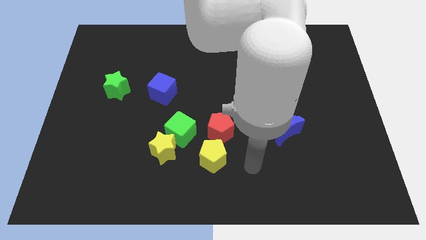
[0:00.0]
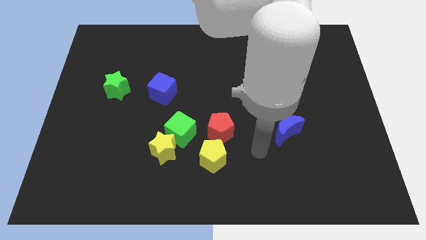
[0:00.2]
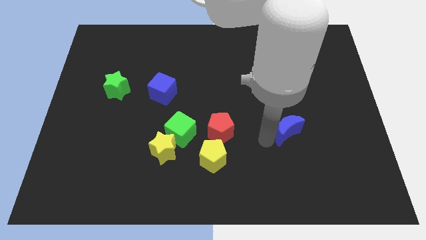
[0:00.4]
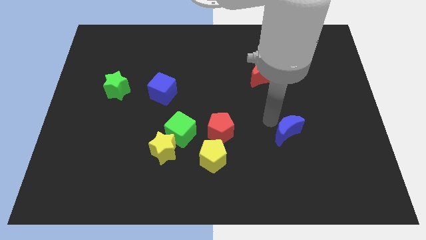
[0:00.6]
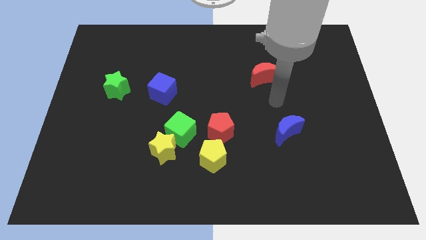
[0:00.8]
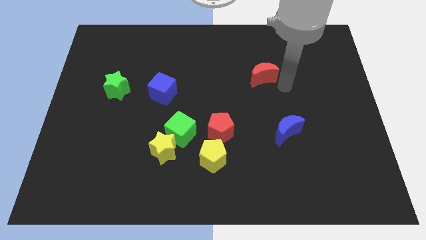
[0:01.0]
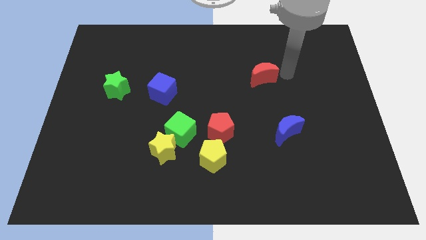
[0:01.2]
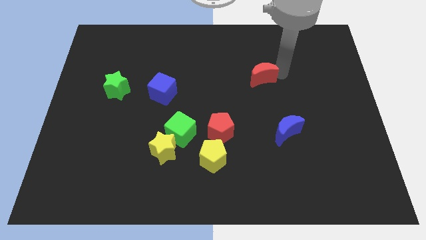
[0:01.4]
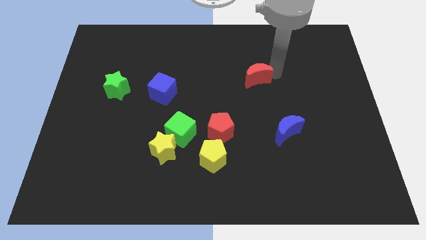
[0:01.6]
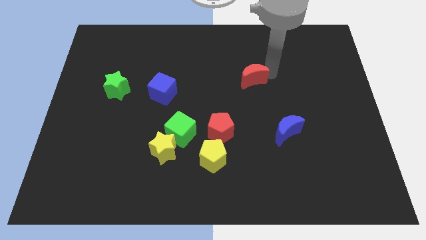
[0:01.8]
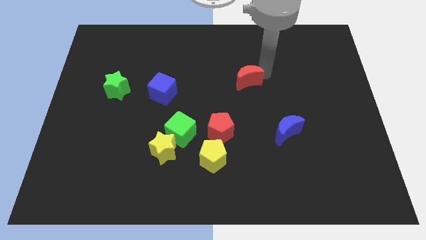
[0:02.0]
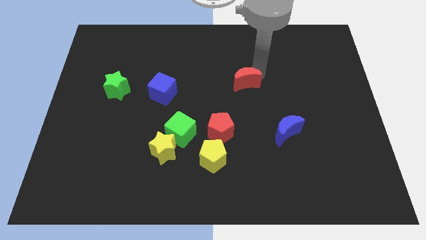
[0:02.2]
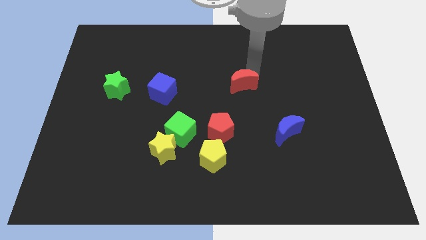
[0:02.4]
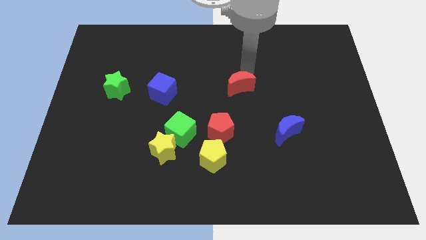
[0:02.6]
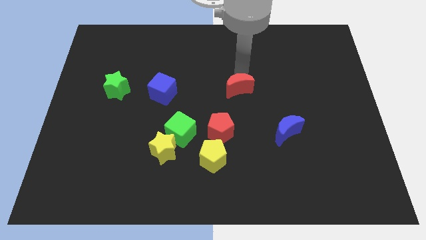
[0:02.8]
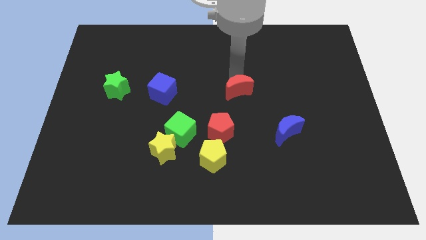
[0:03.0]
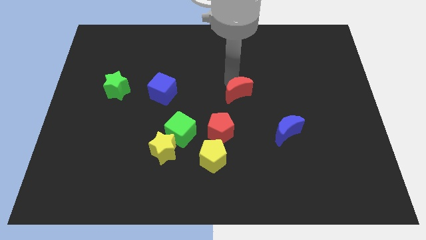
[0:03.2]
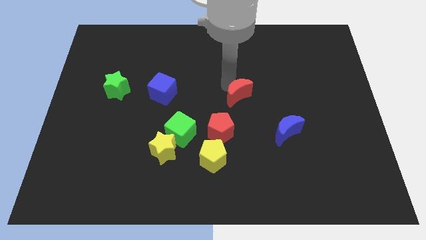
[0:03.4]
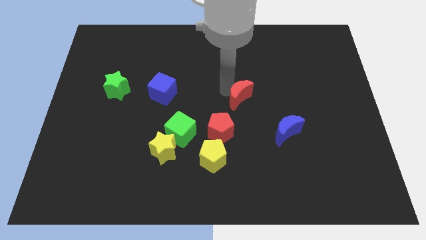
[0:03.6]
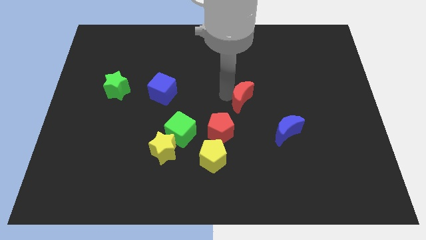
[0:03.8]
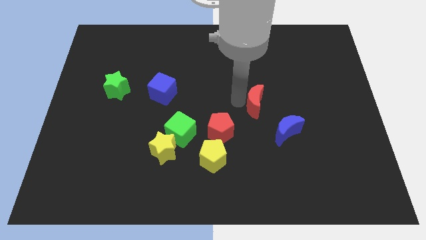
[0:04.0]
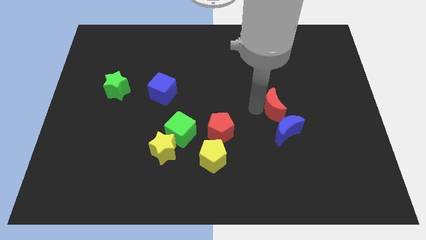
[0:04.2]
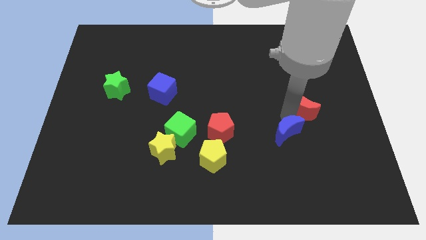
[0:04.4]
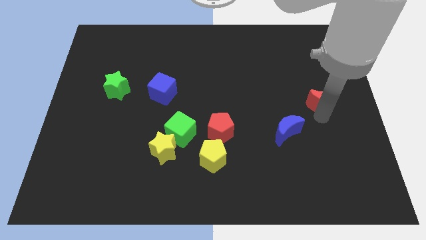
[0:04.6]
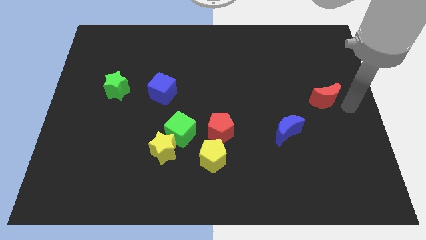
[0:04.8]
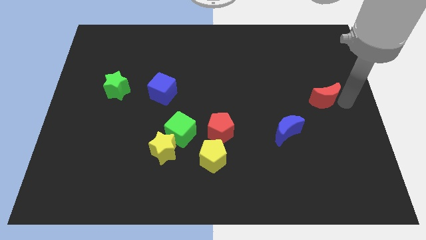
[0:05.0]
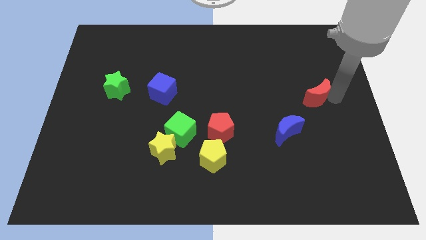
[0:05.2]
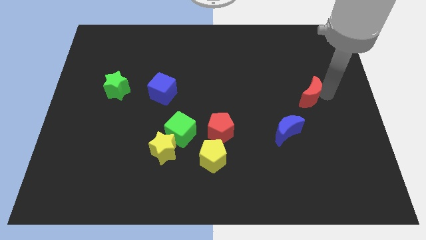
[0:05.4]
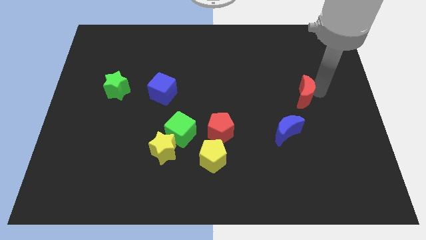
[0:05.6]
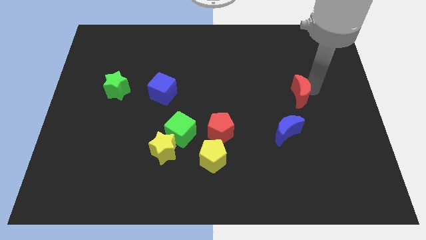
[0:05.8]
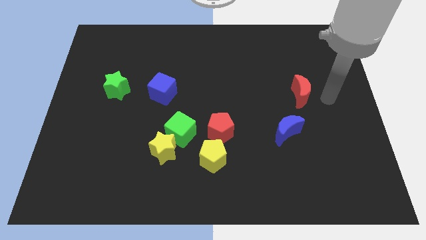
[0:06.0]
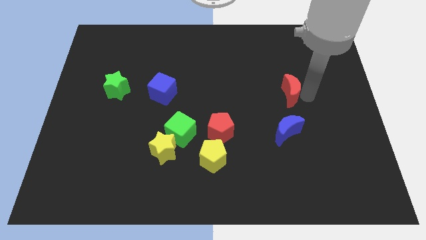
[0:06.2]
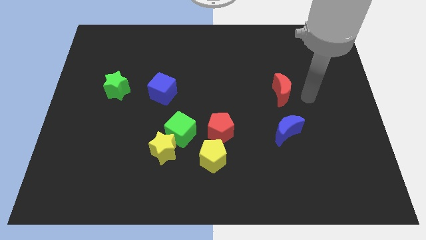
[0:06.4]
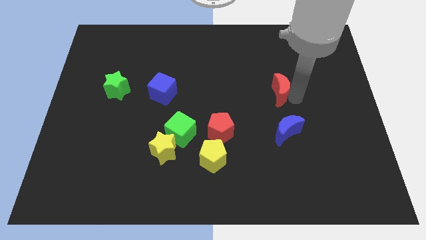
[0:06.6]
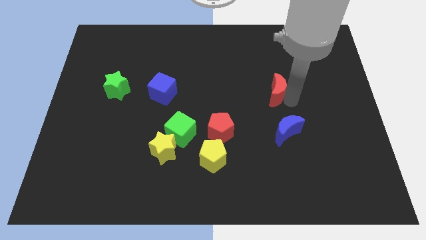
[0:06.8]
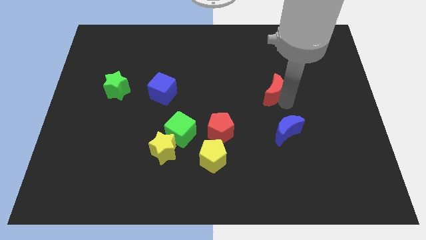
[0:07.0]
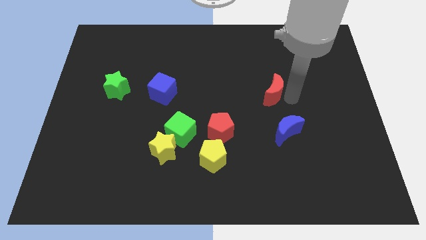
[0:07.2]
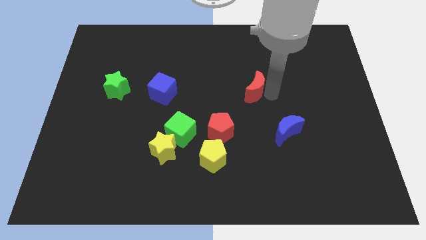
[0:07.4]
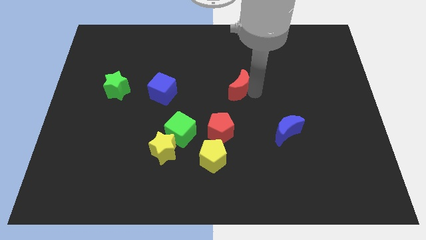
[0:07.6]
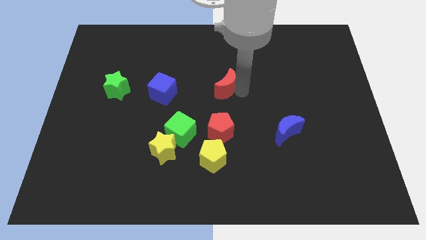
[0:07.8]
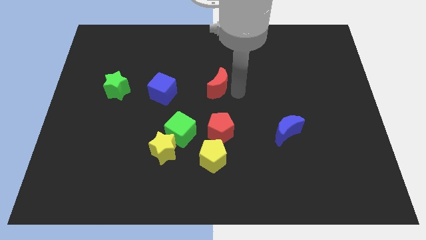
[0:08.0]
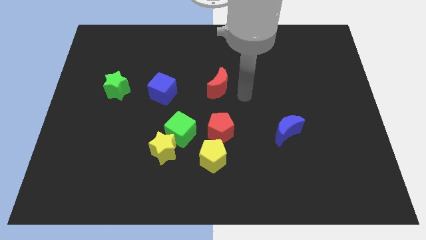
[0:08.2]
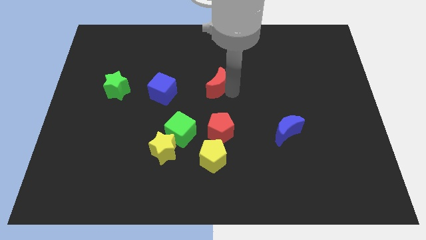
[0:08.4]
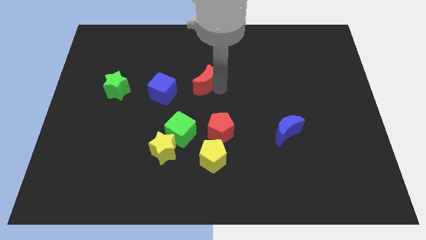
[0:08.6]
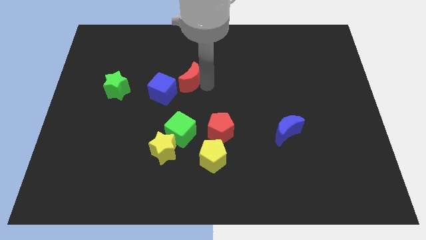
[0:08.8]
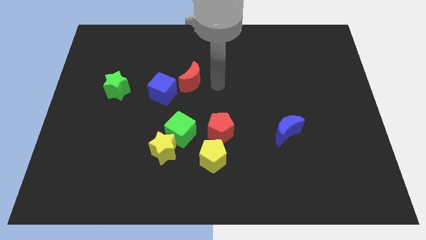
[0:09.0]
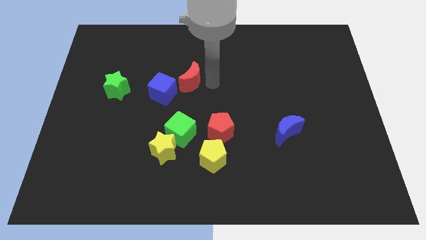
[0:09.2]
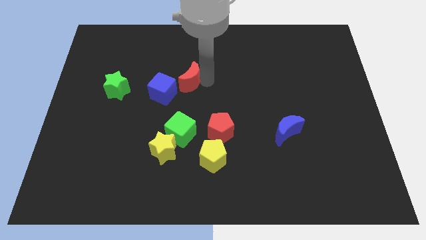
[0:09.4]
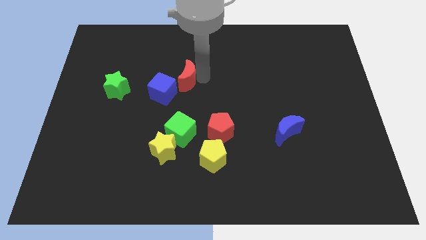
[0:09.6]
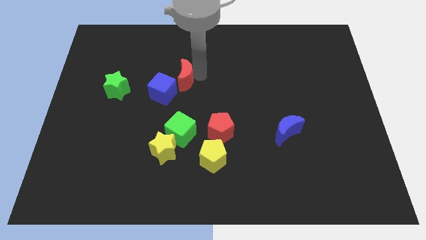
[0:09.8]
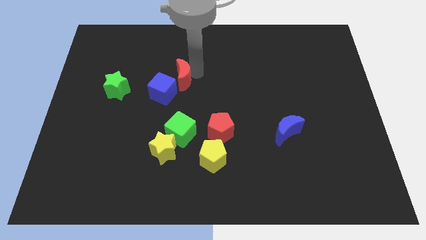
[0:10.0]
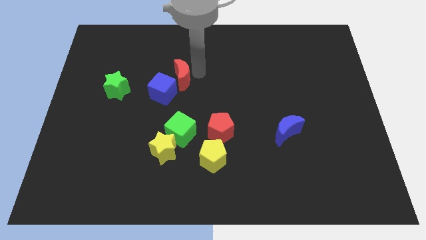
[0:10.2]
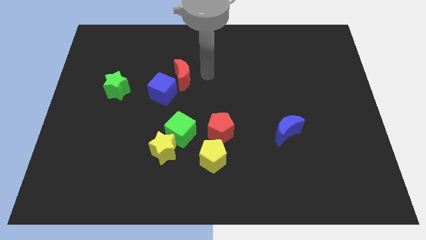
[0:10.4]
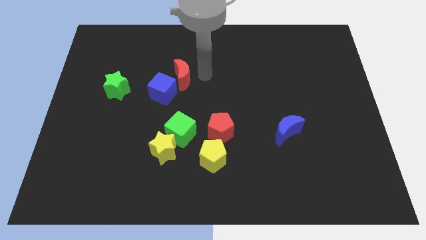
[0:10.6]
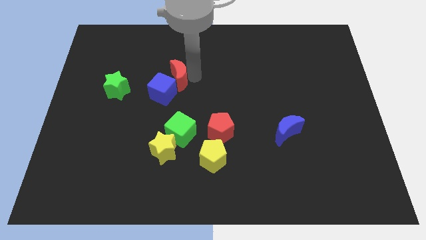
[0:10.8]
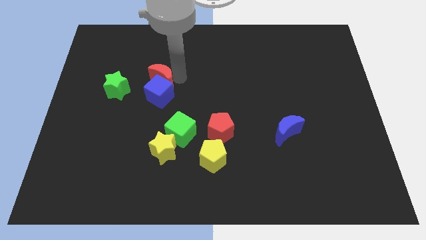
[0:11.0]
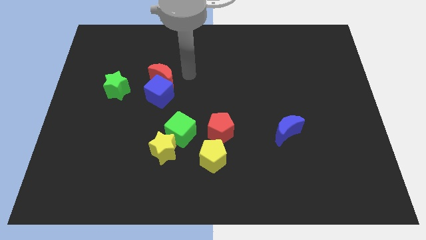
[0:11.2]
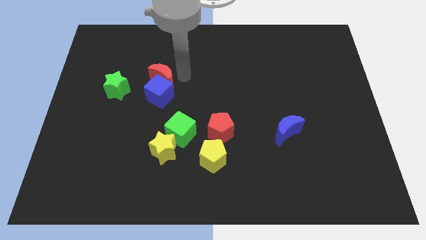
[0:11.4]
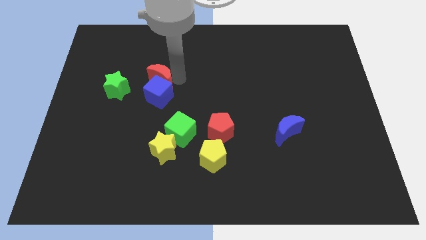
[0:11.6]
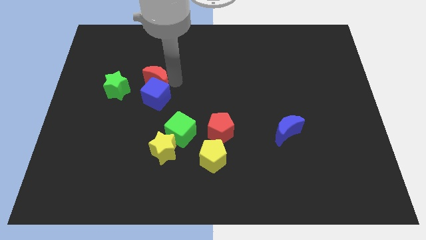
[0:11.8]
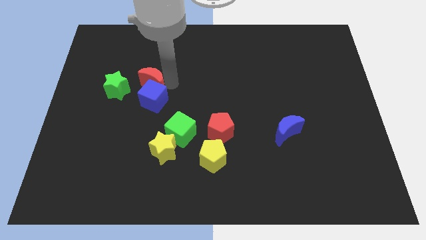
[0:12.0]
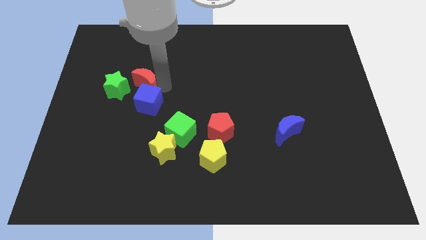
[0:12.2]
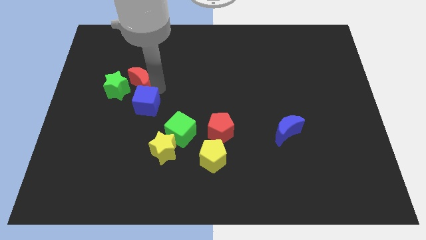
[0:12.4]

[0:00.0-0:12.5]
slide the red moon towards the green star

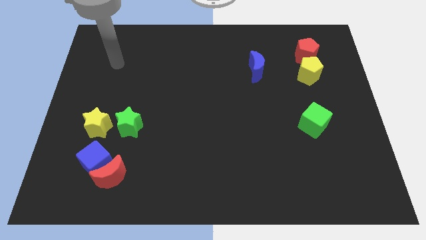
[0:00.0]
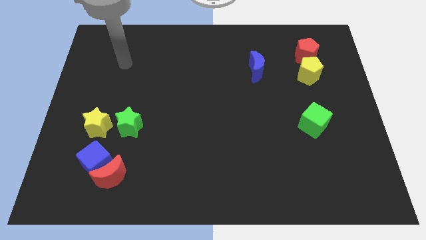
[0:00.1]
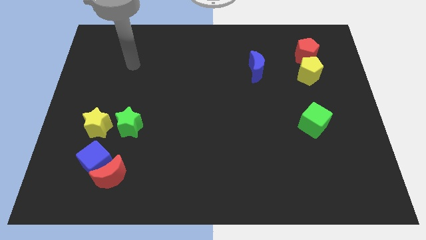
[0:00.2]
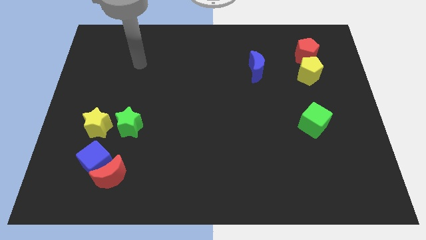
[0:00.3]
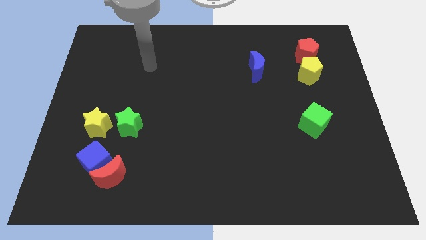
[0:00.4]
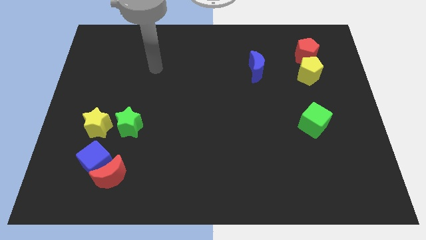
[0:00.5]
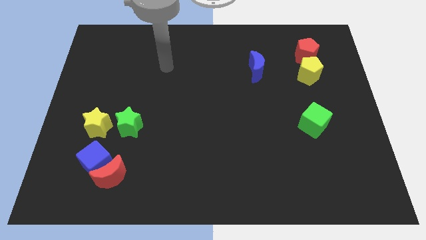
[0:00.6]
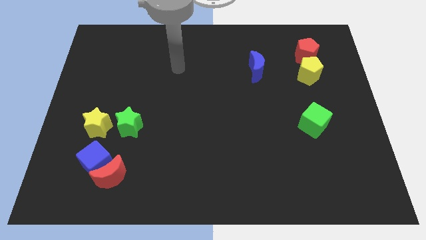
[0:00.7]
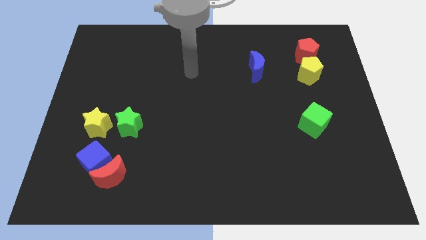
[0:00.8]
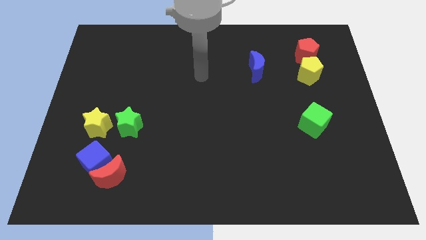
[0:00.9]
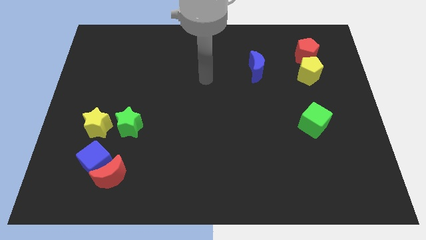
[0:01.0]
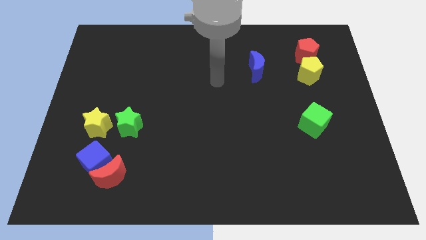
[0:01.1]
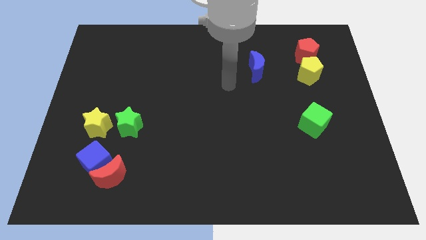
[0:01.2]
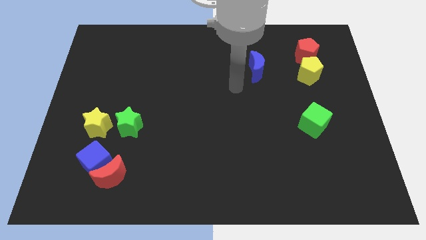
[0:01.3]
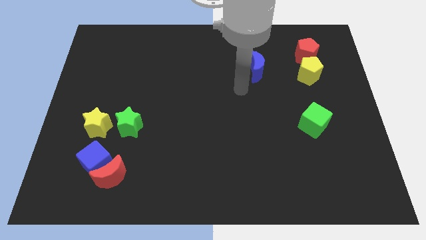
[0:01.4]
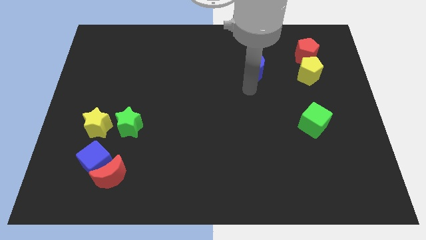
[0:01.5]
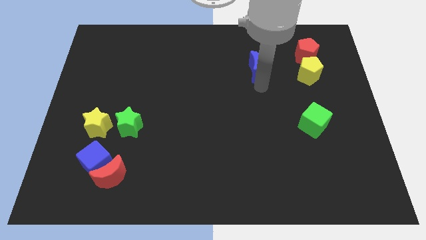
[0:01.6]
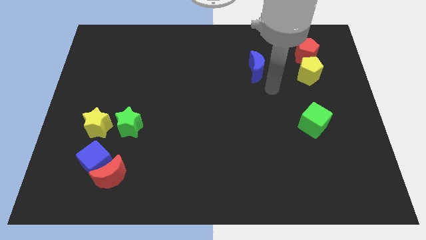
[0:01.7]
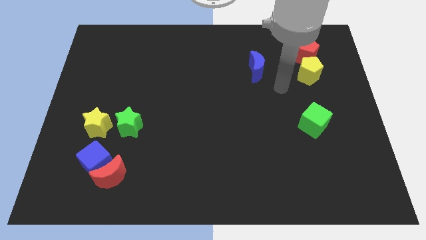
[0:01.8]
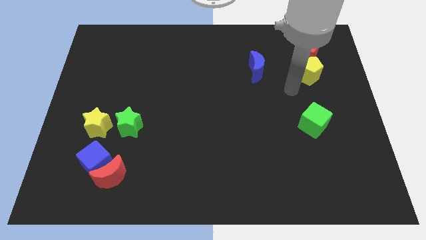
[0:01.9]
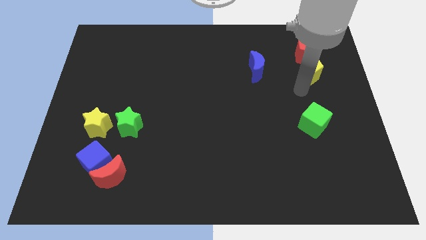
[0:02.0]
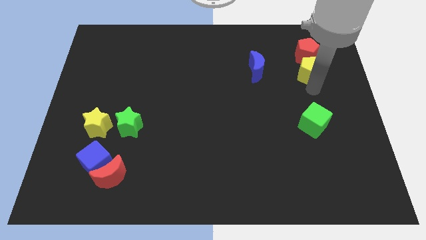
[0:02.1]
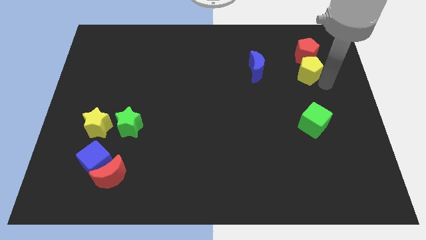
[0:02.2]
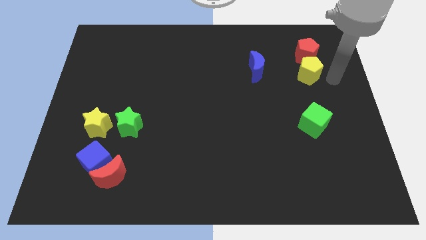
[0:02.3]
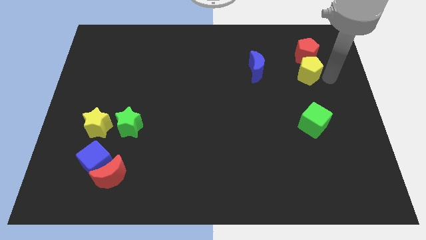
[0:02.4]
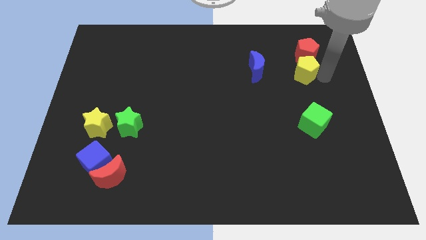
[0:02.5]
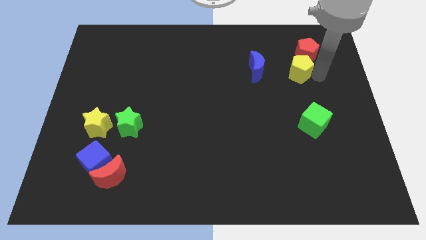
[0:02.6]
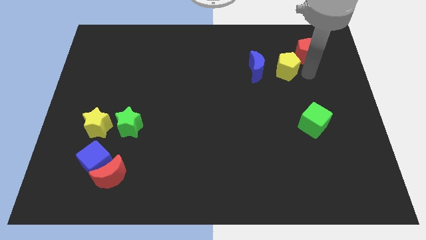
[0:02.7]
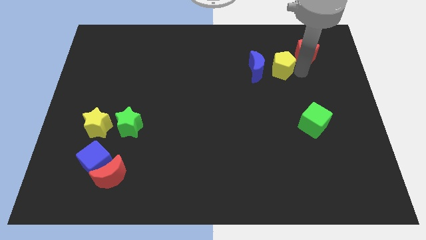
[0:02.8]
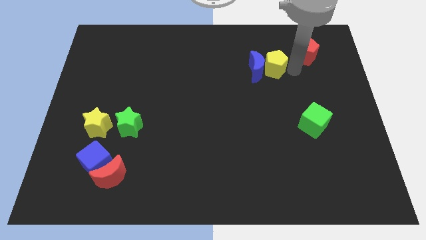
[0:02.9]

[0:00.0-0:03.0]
push the yellow pentagon towards the blue moon
